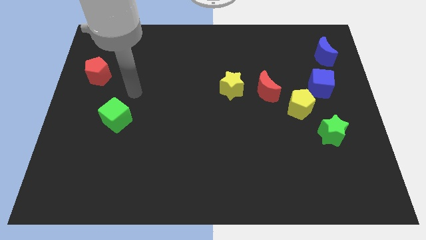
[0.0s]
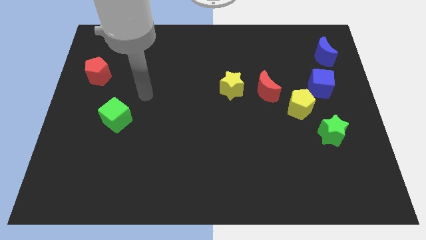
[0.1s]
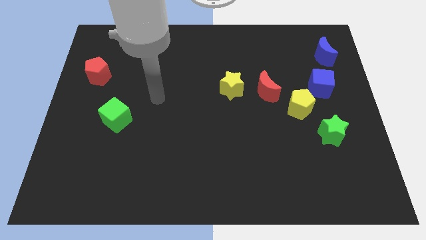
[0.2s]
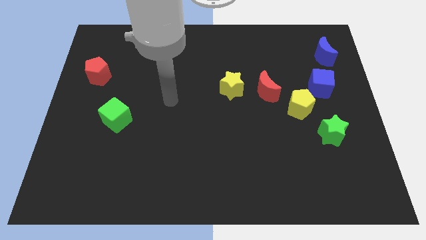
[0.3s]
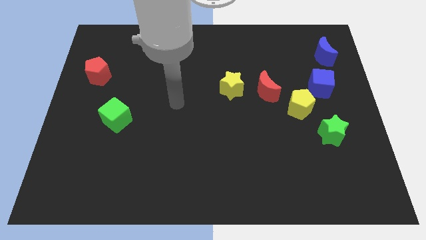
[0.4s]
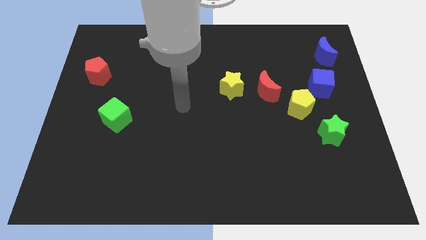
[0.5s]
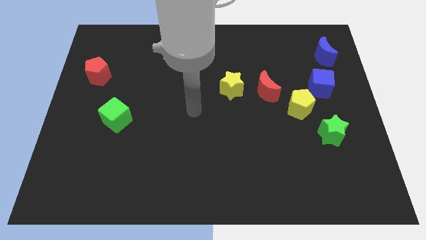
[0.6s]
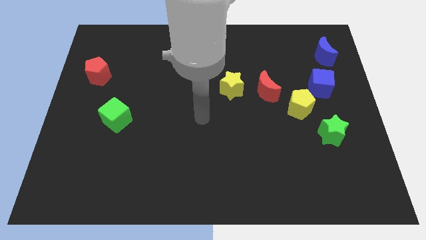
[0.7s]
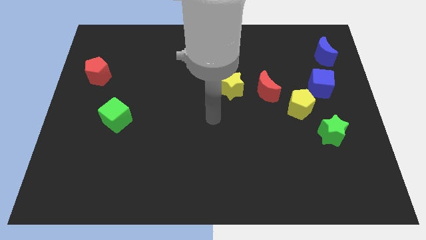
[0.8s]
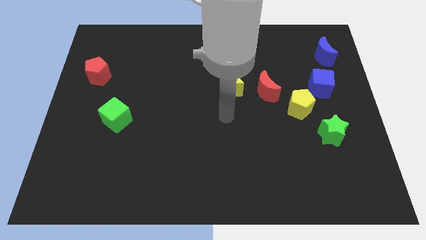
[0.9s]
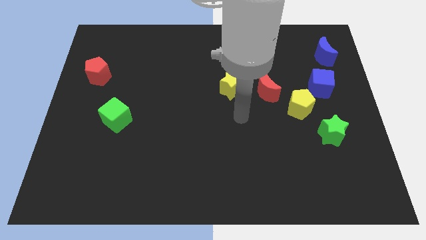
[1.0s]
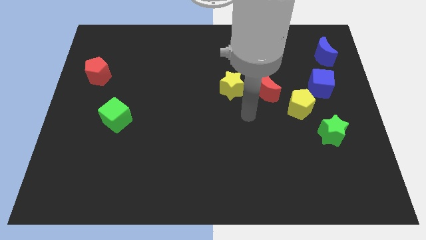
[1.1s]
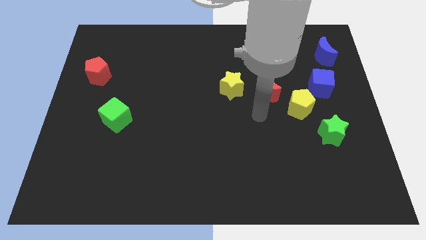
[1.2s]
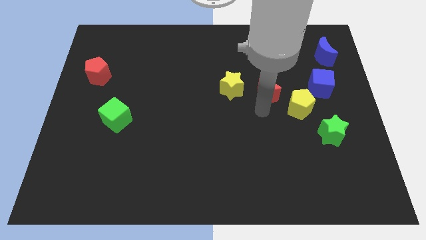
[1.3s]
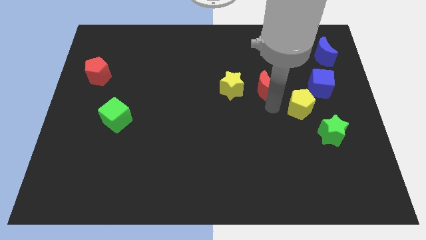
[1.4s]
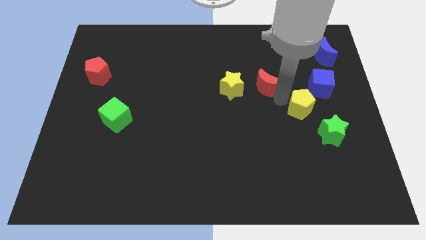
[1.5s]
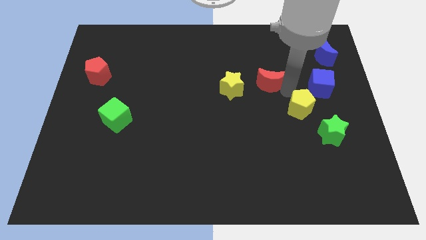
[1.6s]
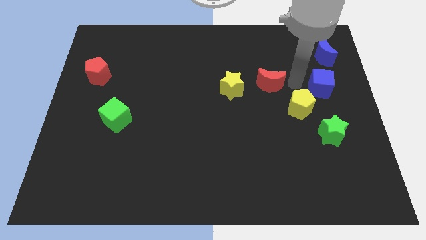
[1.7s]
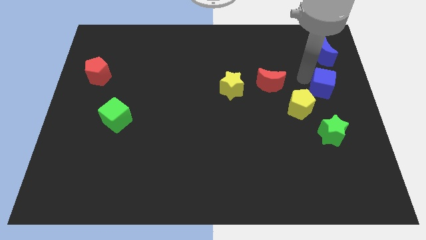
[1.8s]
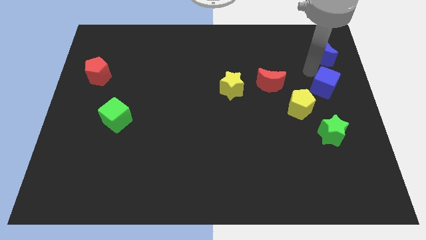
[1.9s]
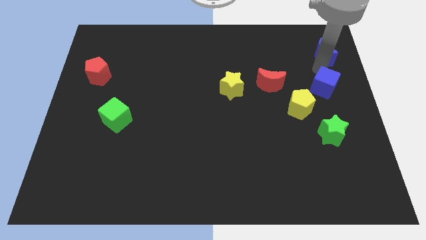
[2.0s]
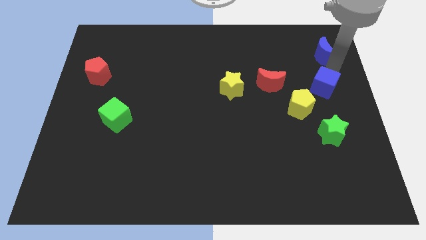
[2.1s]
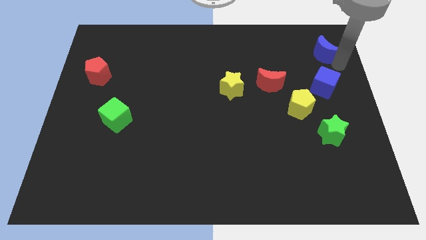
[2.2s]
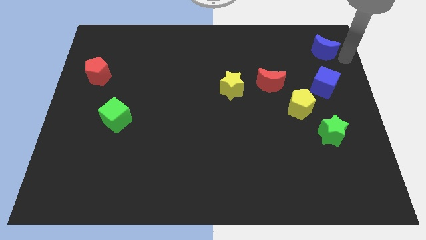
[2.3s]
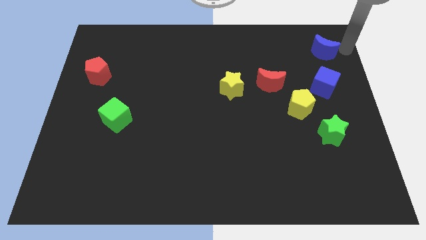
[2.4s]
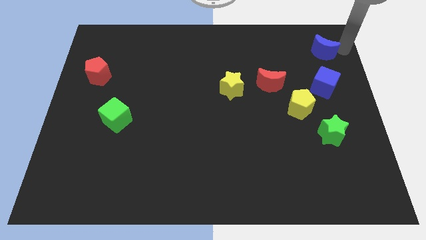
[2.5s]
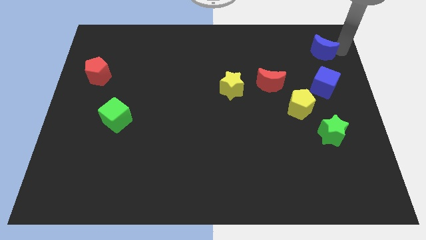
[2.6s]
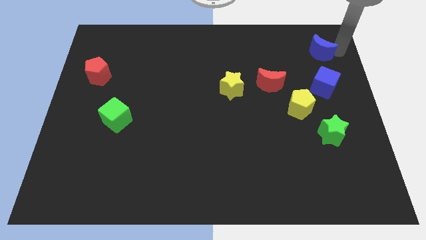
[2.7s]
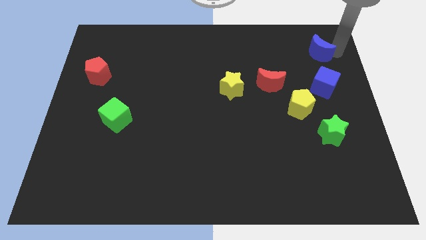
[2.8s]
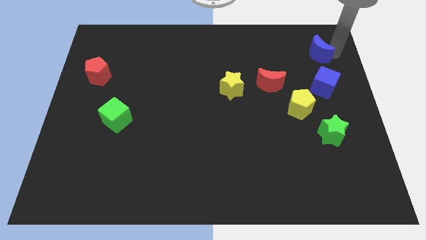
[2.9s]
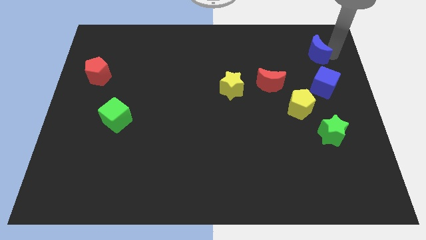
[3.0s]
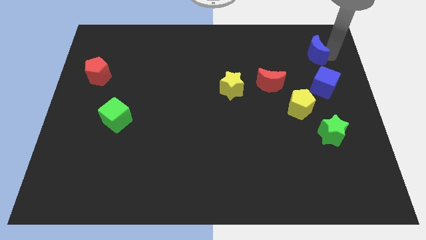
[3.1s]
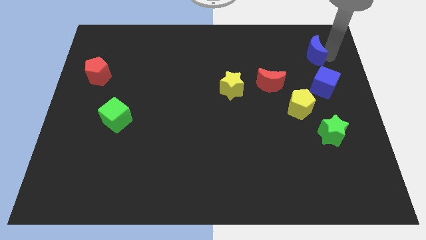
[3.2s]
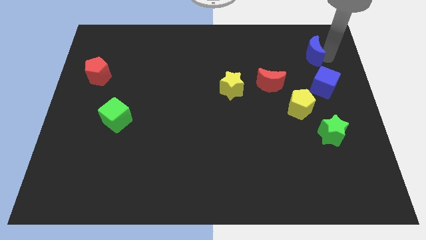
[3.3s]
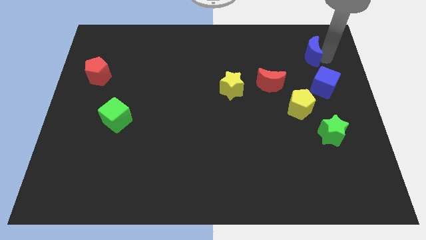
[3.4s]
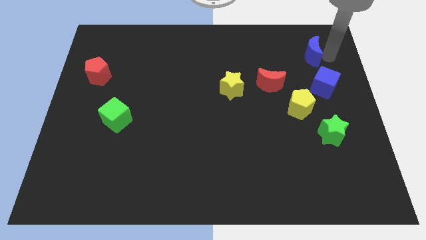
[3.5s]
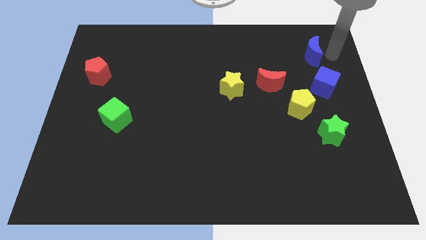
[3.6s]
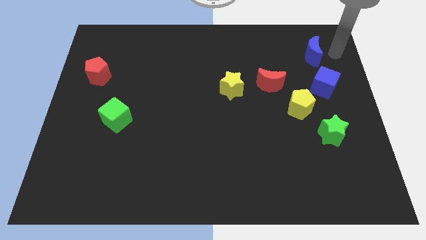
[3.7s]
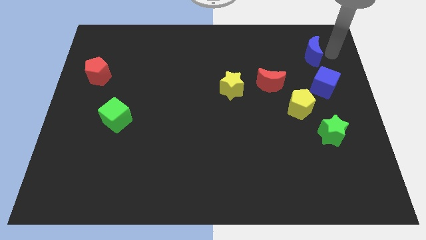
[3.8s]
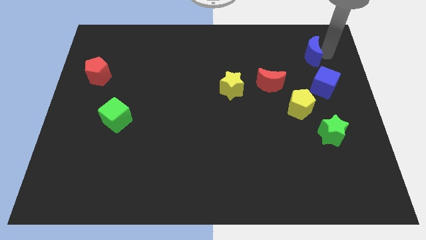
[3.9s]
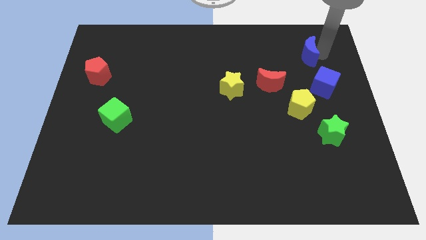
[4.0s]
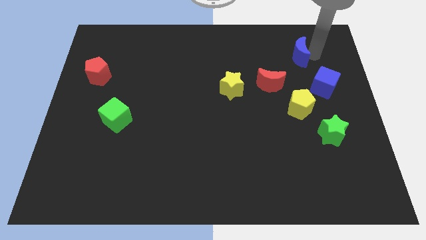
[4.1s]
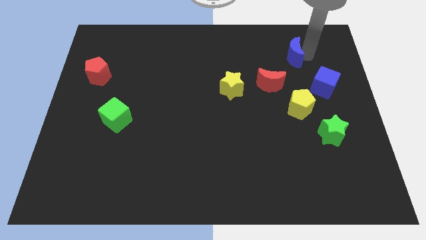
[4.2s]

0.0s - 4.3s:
slightly slide the blue moon to the left

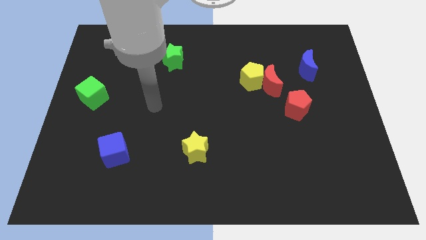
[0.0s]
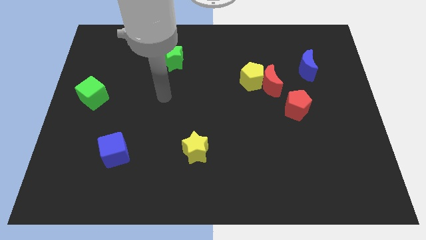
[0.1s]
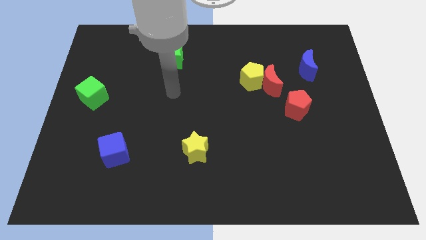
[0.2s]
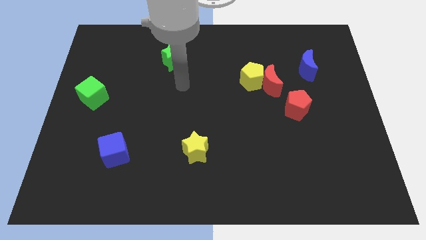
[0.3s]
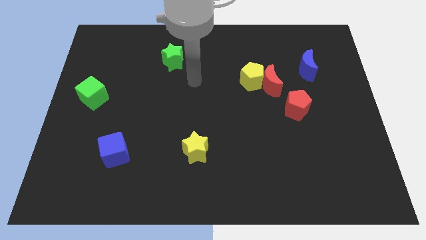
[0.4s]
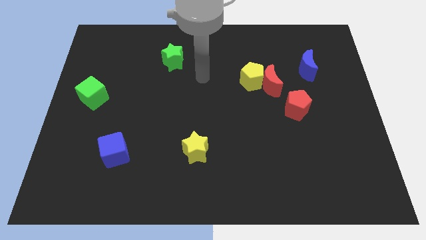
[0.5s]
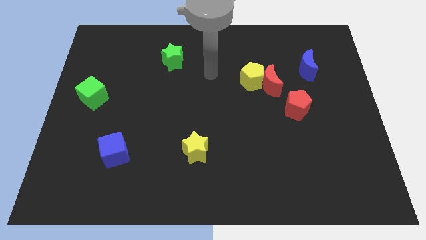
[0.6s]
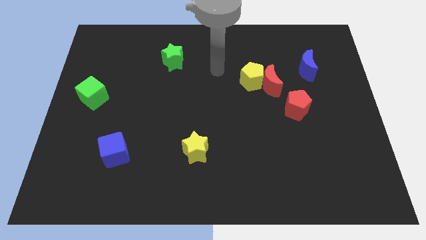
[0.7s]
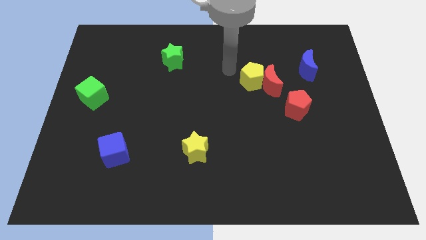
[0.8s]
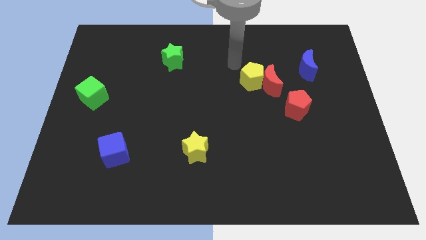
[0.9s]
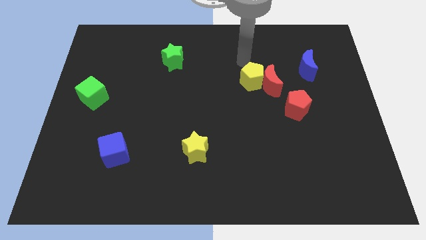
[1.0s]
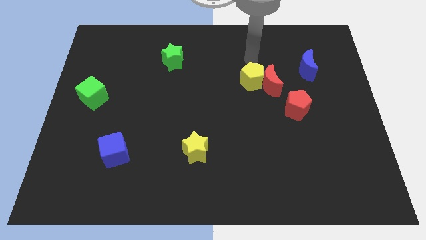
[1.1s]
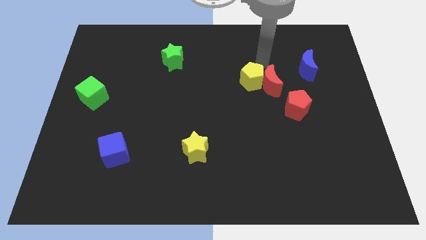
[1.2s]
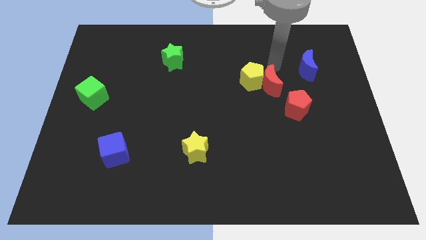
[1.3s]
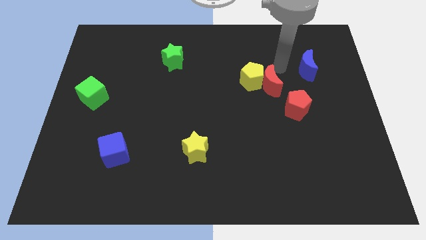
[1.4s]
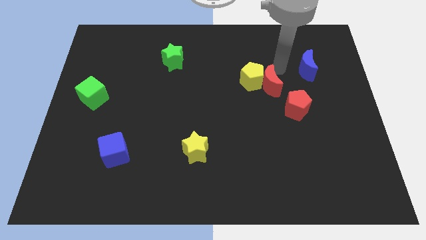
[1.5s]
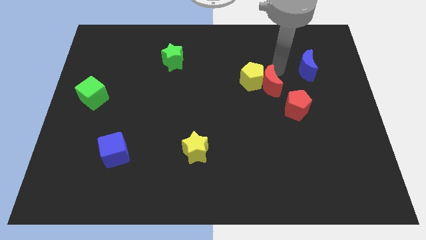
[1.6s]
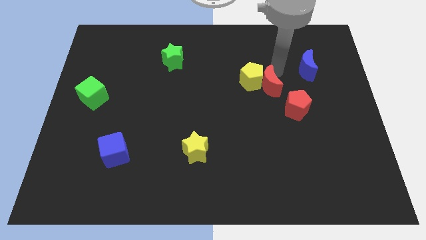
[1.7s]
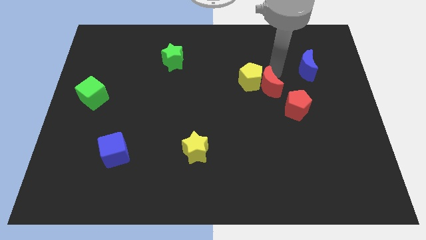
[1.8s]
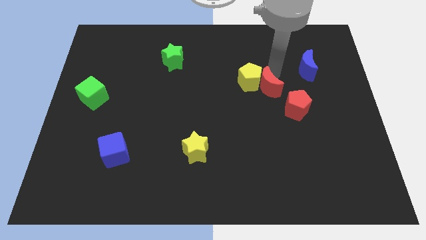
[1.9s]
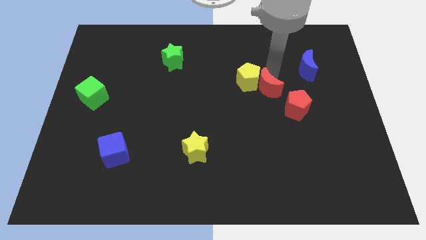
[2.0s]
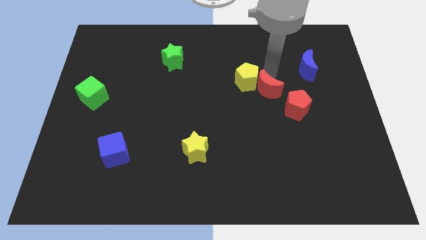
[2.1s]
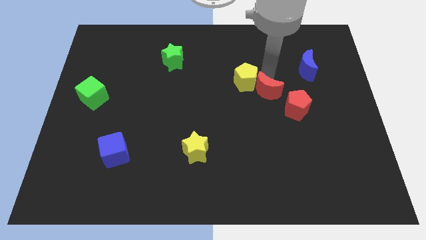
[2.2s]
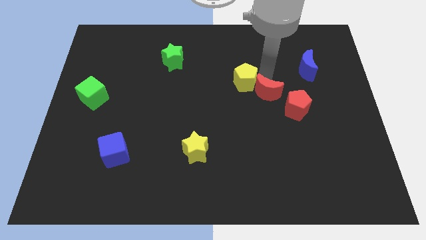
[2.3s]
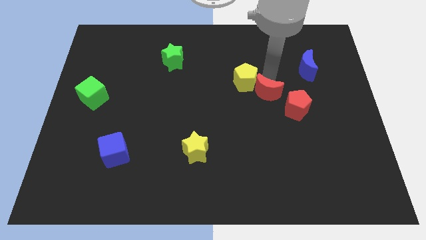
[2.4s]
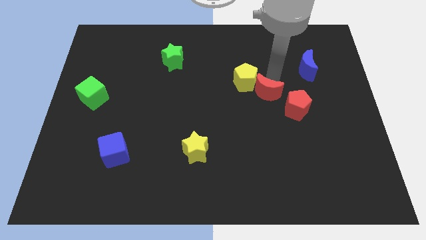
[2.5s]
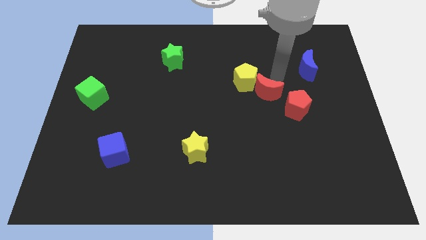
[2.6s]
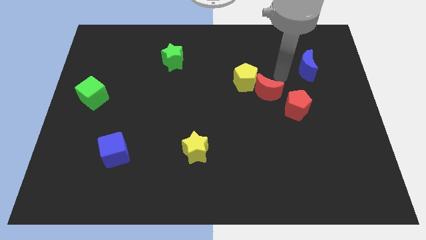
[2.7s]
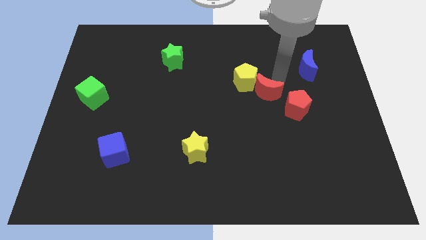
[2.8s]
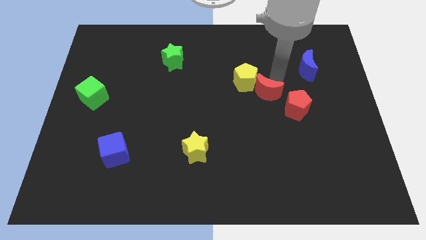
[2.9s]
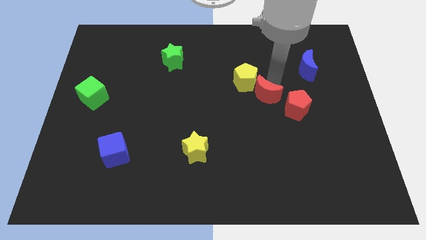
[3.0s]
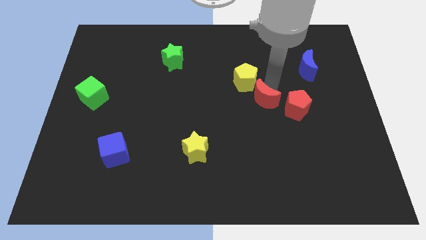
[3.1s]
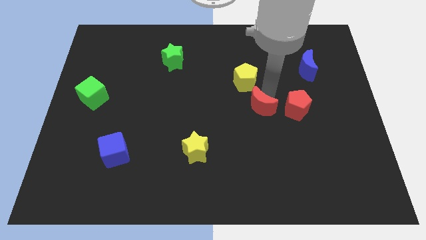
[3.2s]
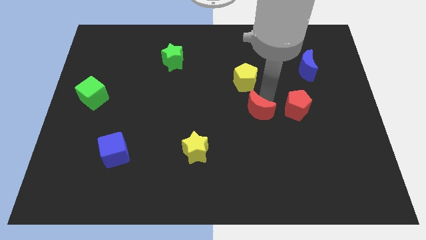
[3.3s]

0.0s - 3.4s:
move the red moon a little downwards and left diagonally

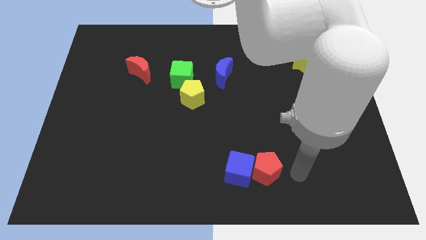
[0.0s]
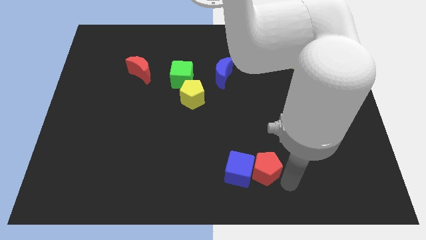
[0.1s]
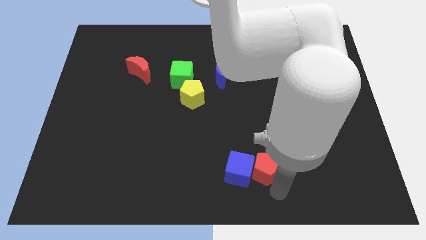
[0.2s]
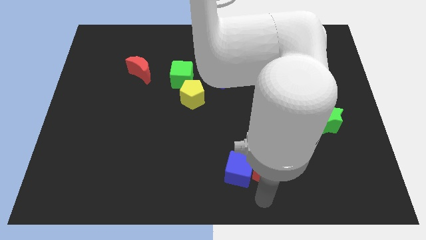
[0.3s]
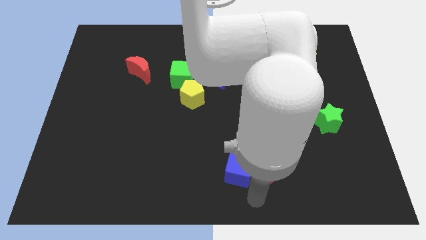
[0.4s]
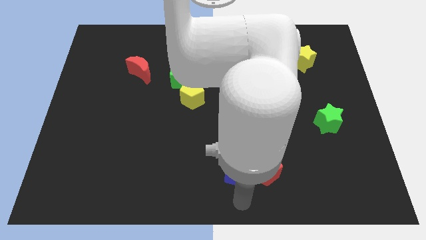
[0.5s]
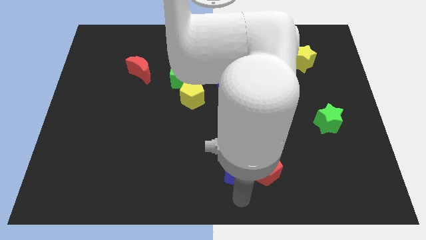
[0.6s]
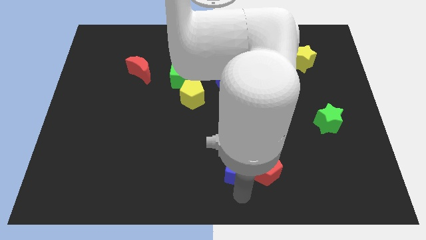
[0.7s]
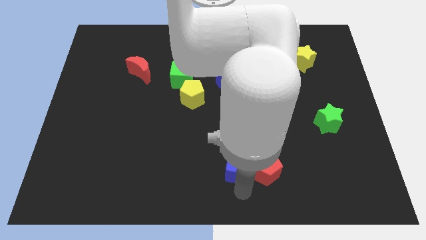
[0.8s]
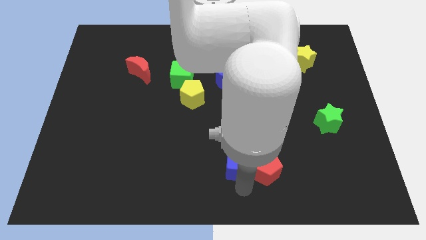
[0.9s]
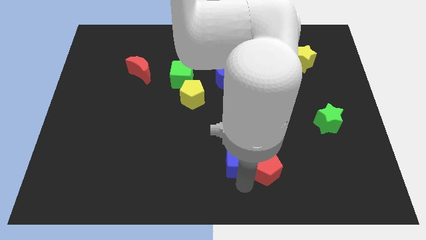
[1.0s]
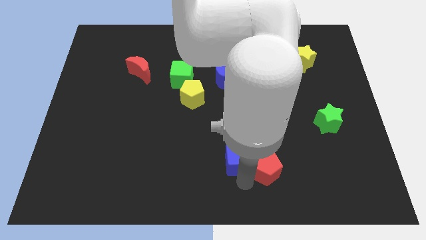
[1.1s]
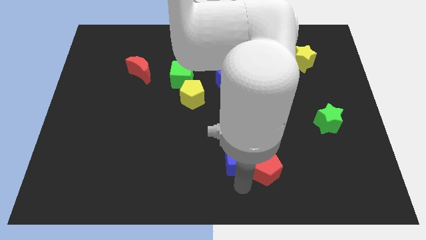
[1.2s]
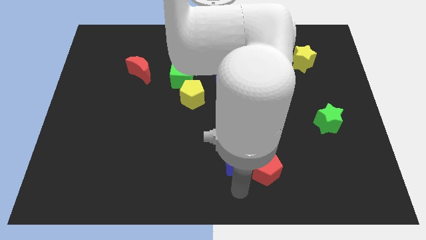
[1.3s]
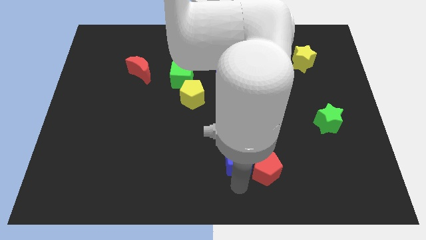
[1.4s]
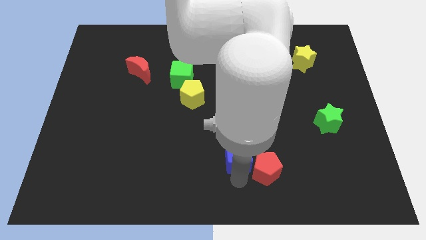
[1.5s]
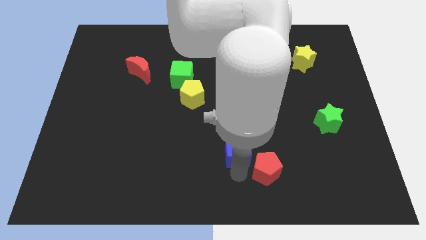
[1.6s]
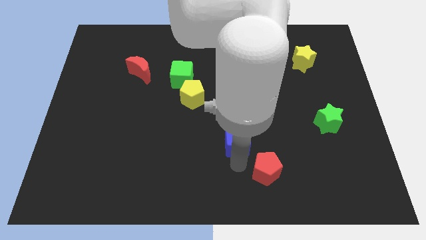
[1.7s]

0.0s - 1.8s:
push the blue cube a little up
